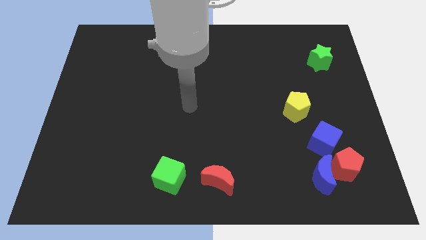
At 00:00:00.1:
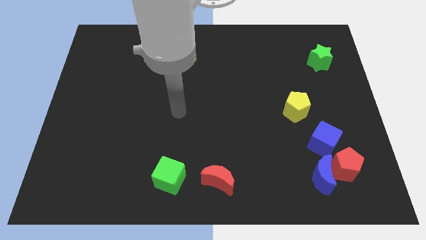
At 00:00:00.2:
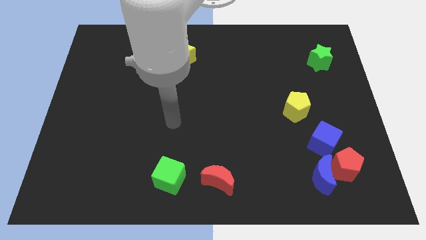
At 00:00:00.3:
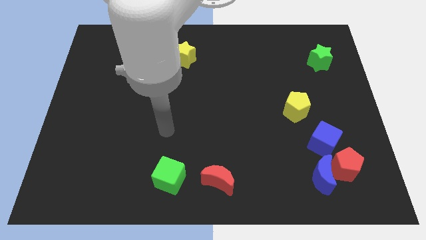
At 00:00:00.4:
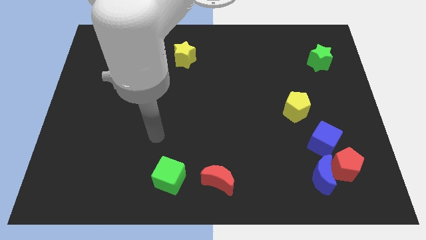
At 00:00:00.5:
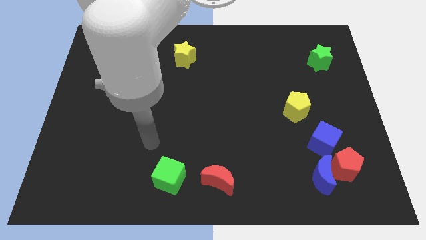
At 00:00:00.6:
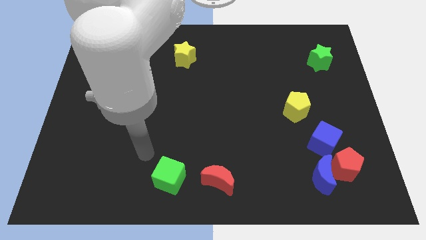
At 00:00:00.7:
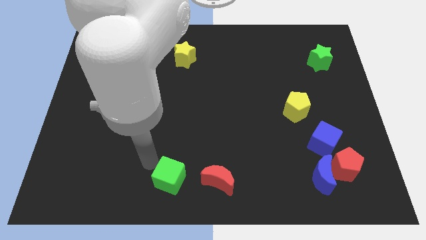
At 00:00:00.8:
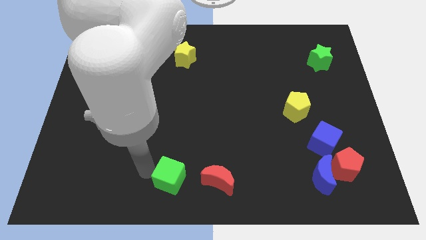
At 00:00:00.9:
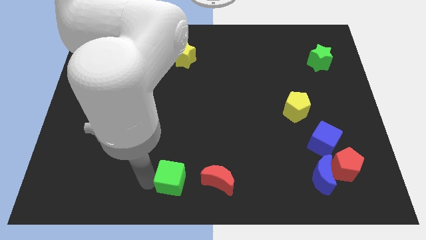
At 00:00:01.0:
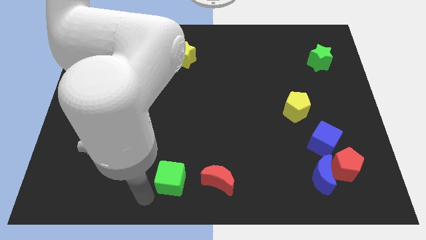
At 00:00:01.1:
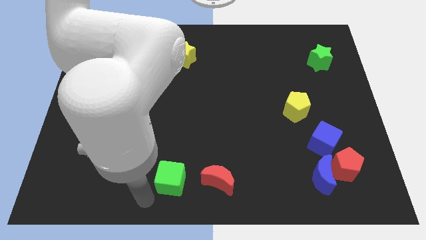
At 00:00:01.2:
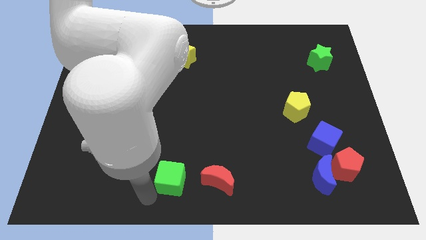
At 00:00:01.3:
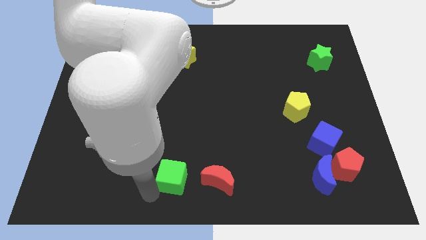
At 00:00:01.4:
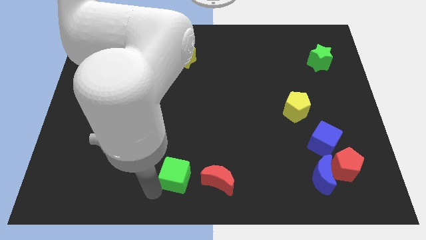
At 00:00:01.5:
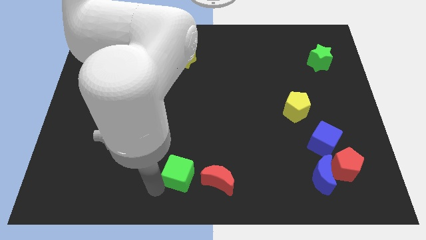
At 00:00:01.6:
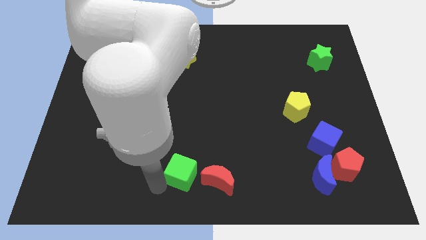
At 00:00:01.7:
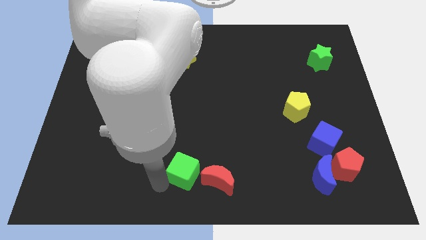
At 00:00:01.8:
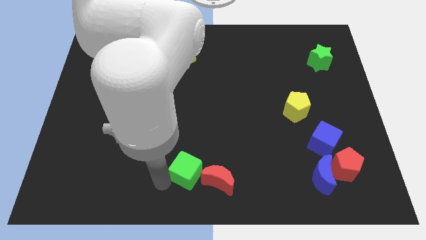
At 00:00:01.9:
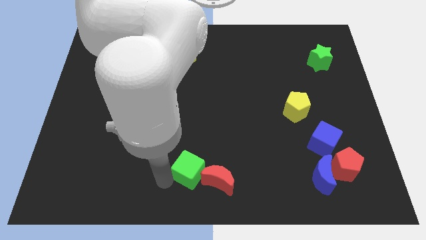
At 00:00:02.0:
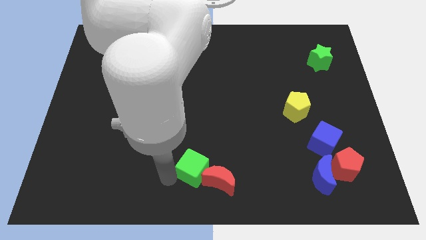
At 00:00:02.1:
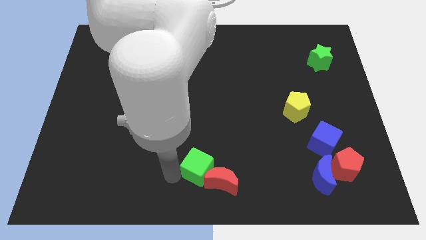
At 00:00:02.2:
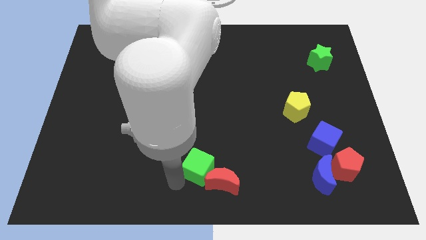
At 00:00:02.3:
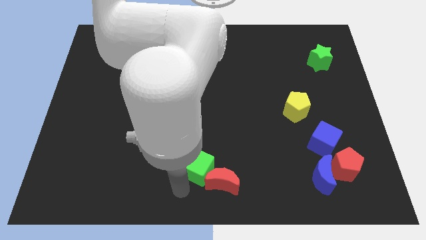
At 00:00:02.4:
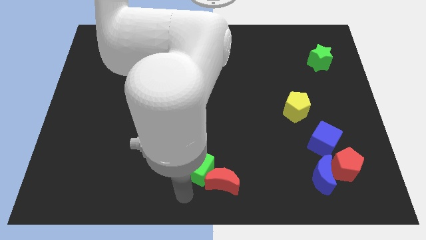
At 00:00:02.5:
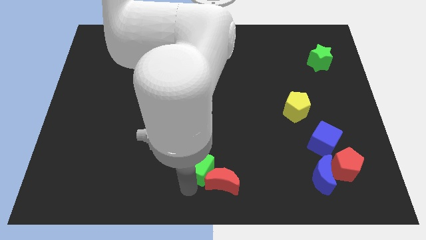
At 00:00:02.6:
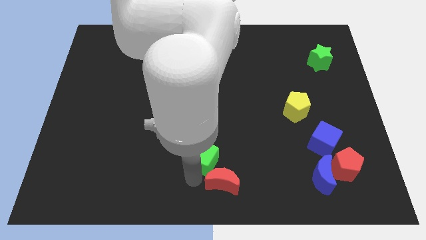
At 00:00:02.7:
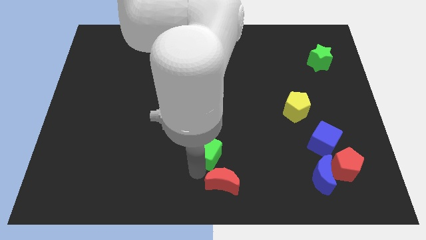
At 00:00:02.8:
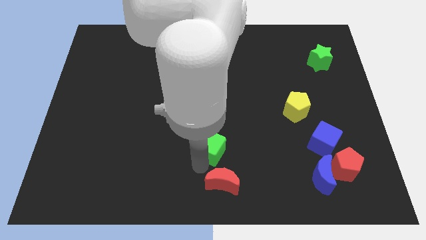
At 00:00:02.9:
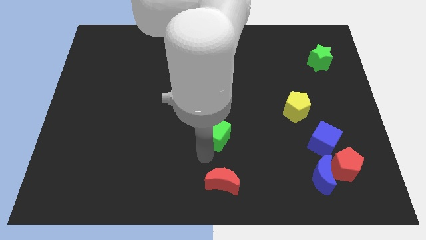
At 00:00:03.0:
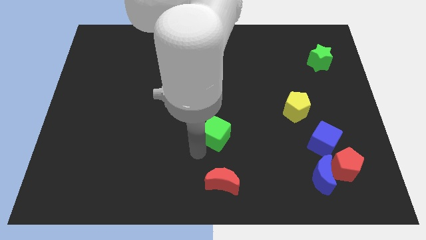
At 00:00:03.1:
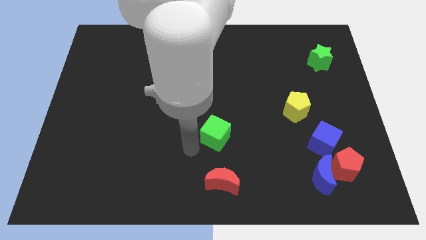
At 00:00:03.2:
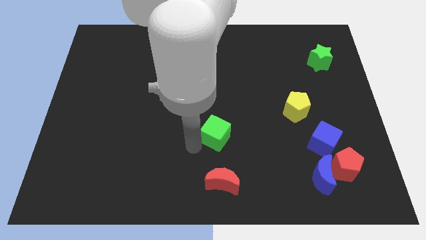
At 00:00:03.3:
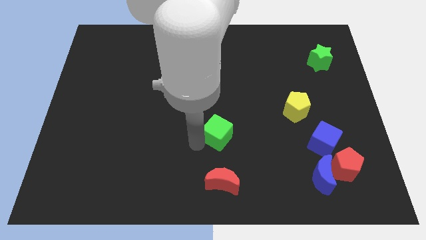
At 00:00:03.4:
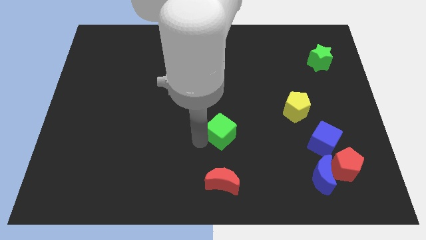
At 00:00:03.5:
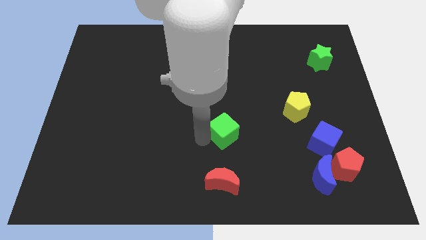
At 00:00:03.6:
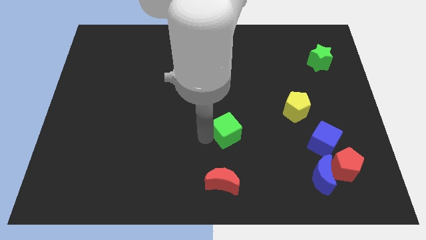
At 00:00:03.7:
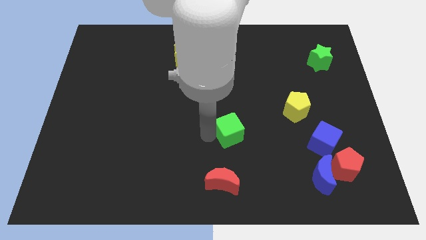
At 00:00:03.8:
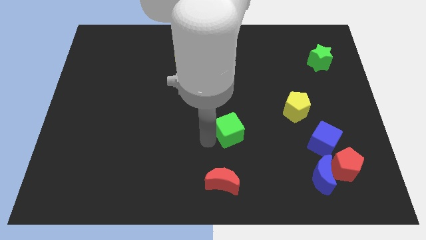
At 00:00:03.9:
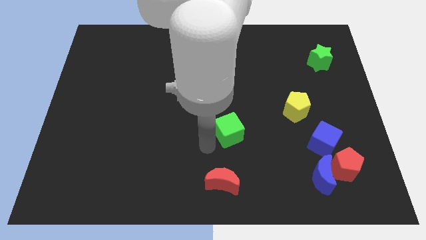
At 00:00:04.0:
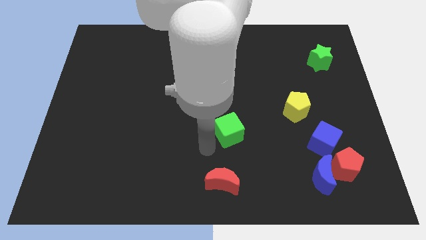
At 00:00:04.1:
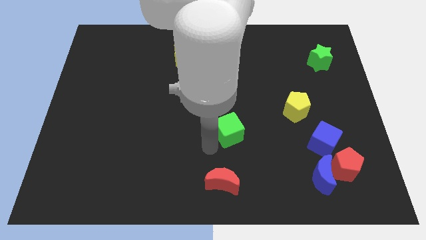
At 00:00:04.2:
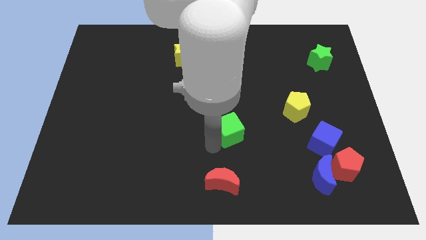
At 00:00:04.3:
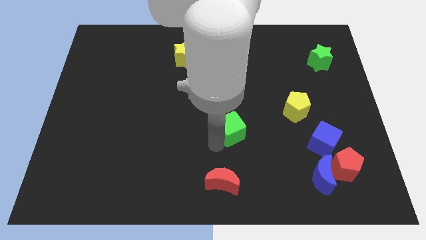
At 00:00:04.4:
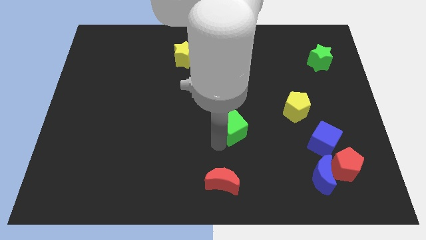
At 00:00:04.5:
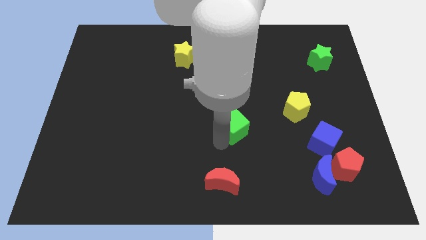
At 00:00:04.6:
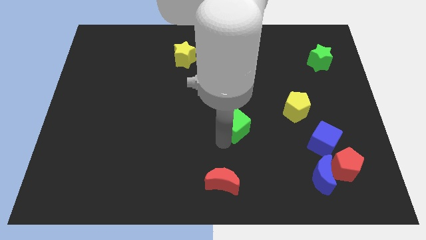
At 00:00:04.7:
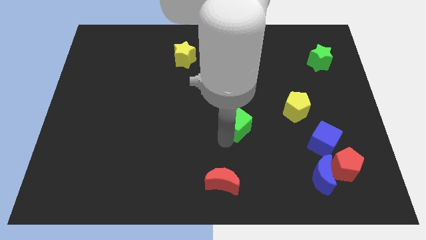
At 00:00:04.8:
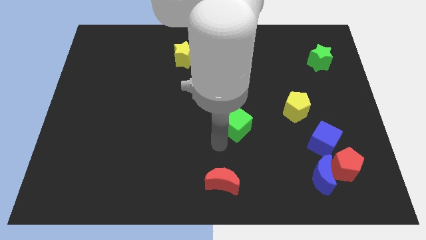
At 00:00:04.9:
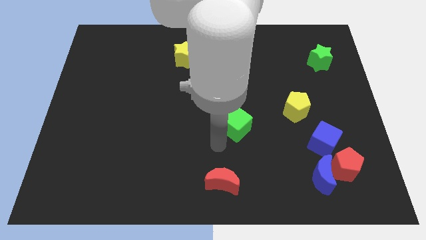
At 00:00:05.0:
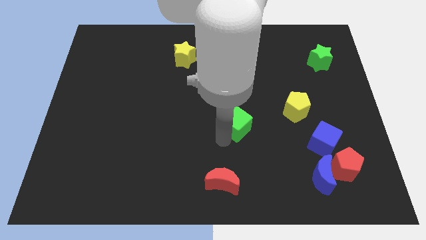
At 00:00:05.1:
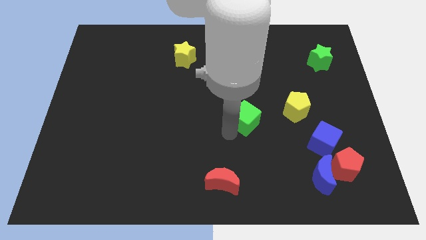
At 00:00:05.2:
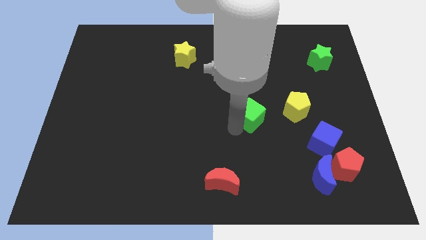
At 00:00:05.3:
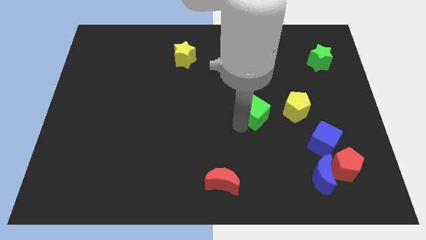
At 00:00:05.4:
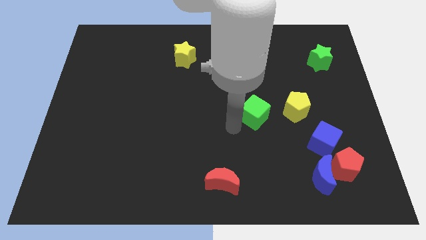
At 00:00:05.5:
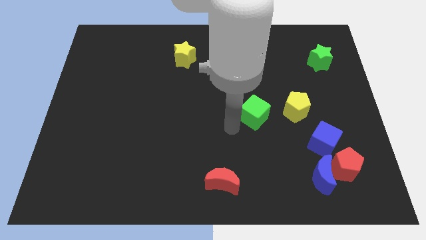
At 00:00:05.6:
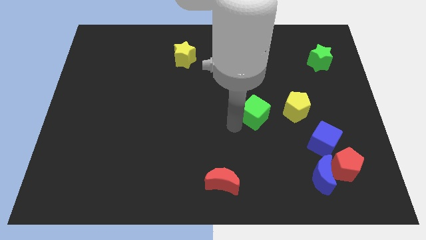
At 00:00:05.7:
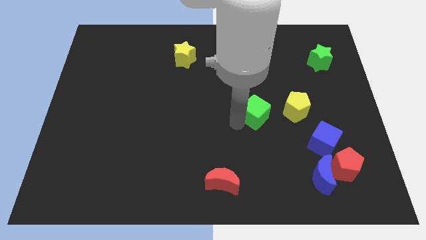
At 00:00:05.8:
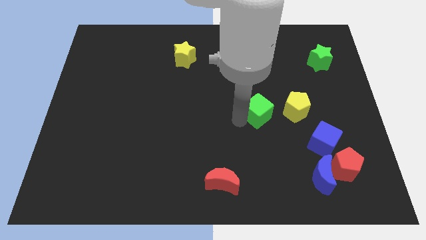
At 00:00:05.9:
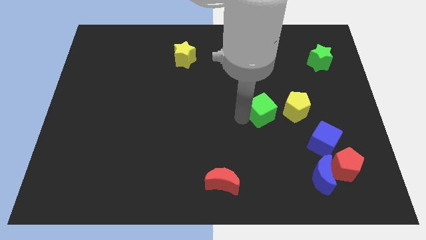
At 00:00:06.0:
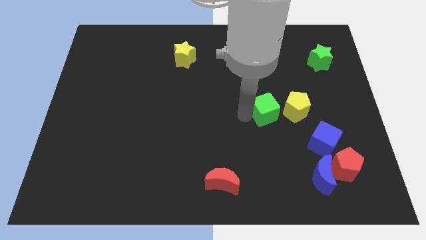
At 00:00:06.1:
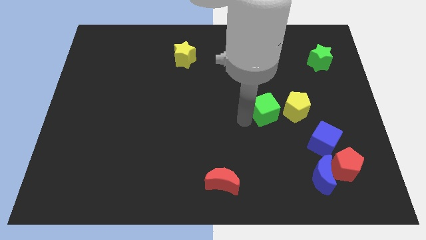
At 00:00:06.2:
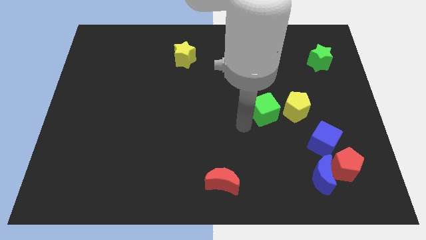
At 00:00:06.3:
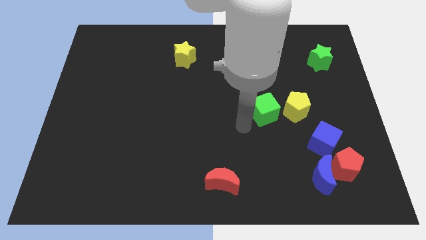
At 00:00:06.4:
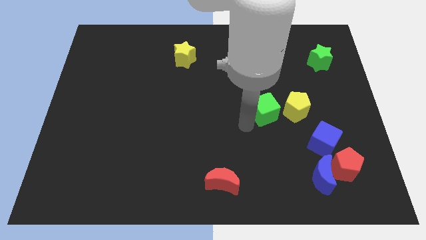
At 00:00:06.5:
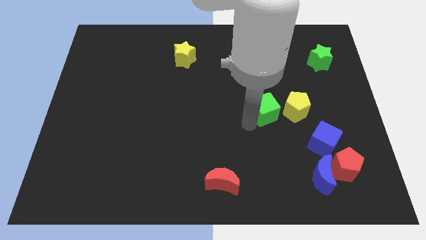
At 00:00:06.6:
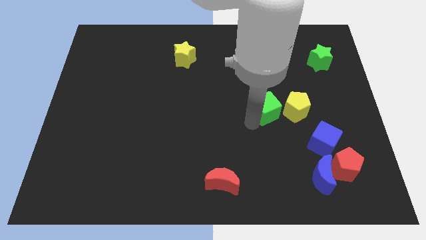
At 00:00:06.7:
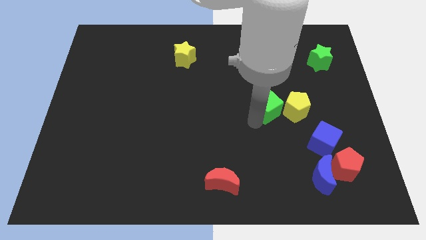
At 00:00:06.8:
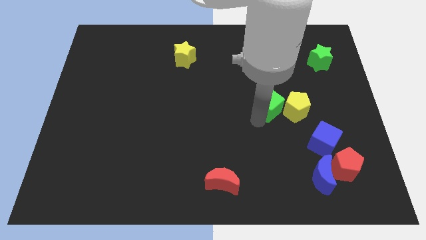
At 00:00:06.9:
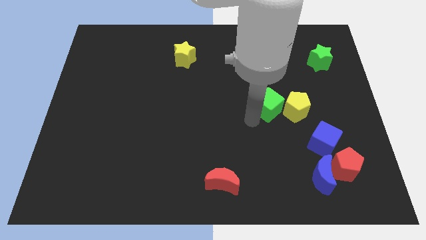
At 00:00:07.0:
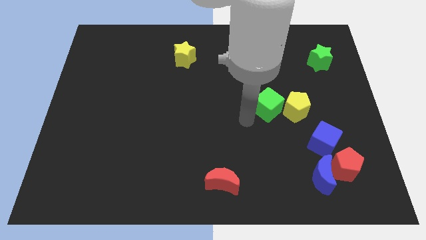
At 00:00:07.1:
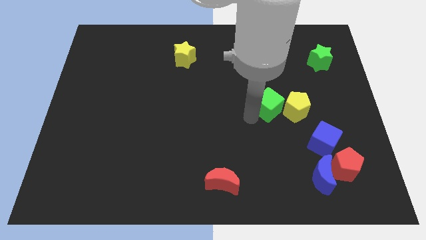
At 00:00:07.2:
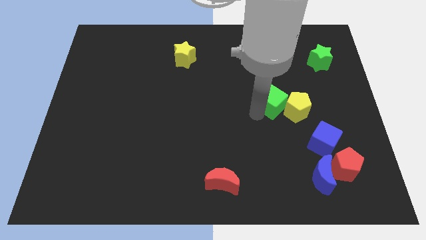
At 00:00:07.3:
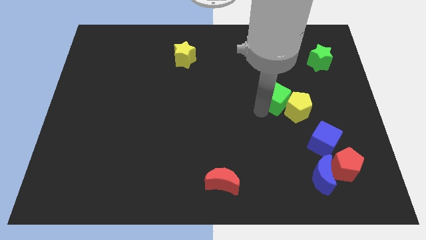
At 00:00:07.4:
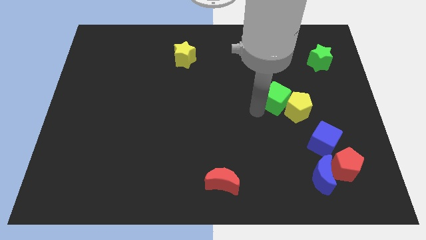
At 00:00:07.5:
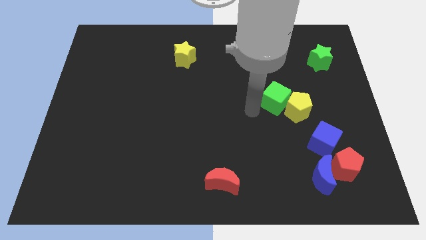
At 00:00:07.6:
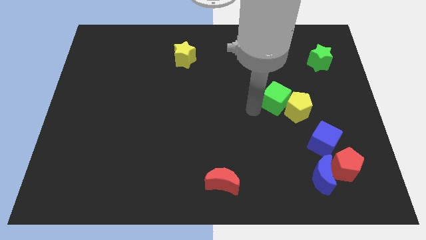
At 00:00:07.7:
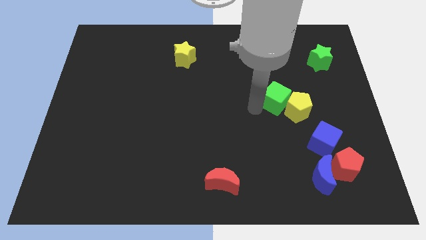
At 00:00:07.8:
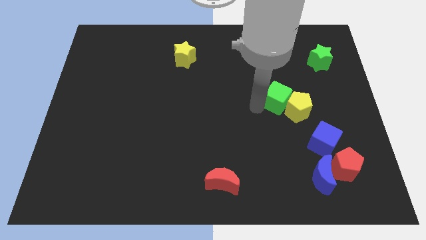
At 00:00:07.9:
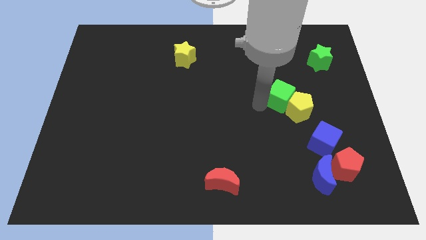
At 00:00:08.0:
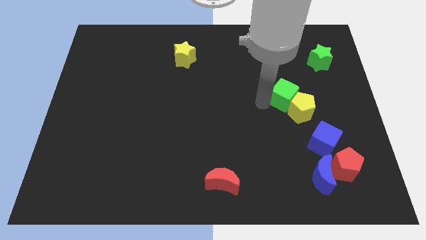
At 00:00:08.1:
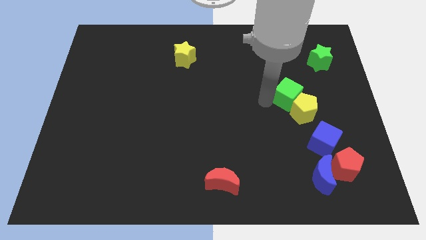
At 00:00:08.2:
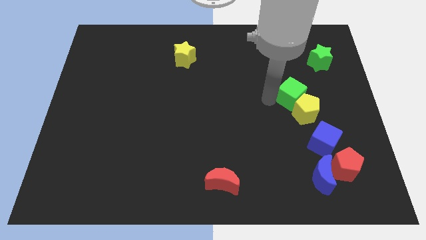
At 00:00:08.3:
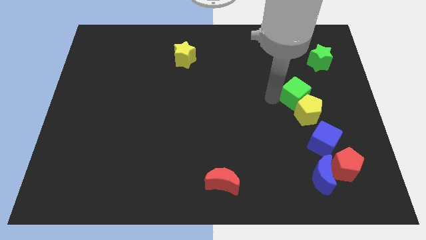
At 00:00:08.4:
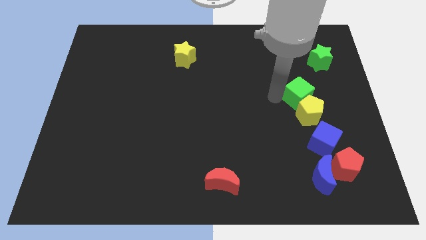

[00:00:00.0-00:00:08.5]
slide the green cube to the top right side of the yellow pentagon
